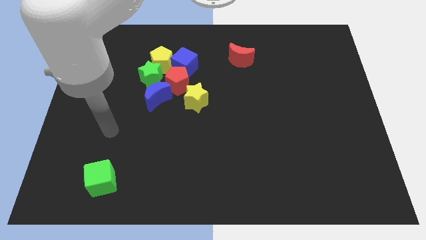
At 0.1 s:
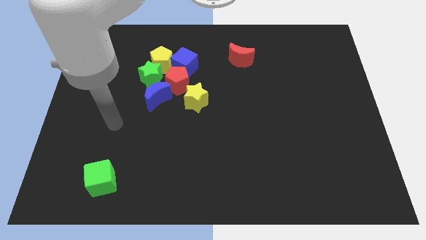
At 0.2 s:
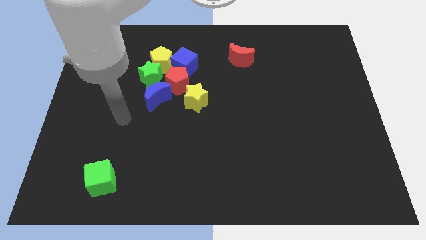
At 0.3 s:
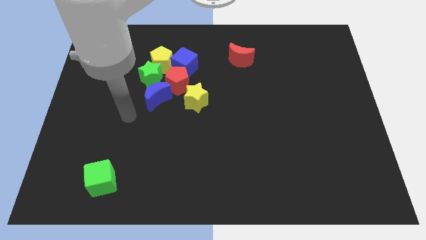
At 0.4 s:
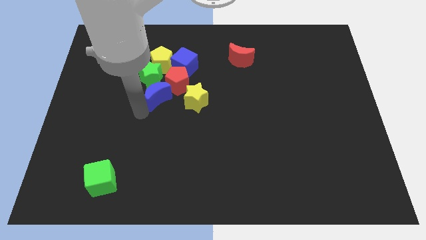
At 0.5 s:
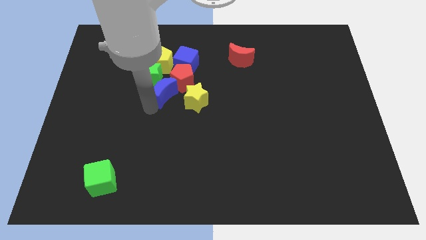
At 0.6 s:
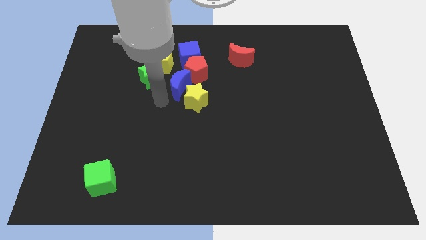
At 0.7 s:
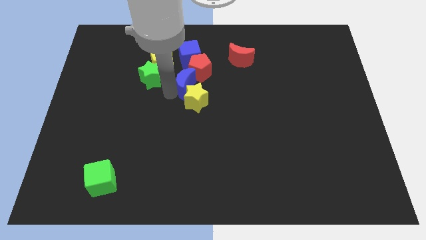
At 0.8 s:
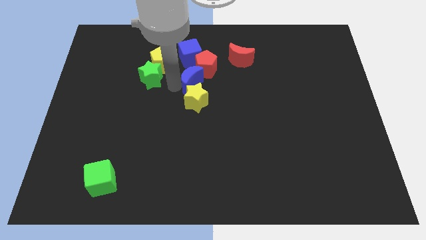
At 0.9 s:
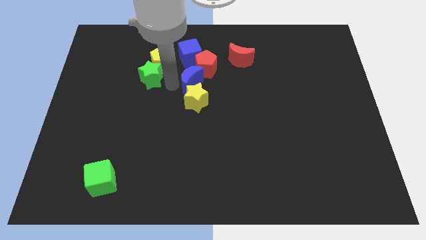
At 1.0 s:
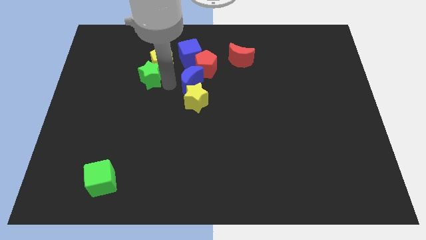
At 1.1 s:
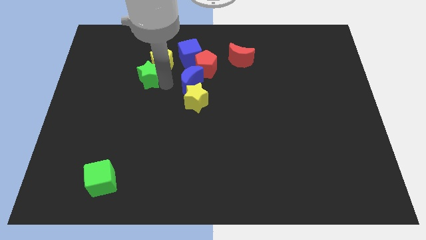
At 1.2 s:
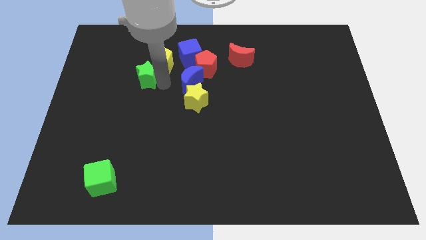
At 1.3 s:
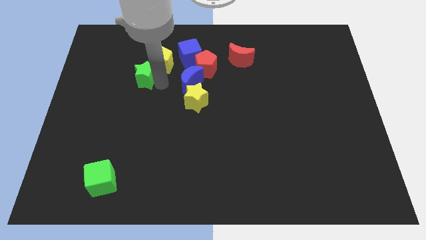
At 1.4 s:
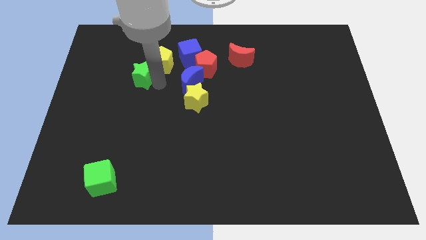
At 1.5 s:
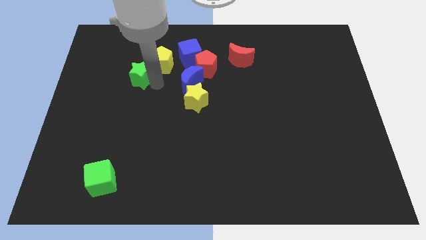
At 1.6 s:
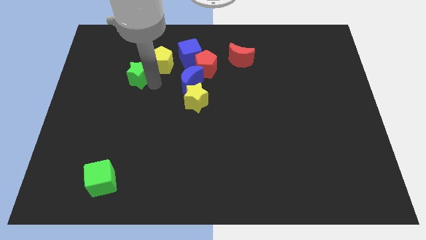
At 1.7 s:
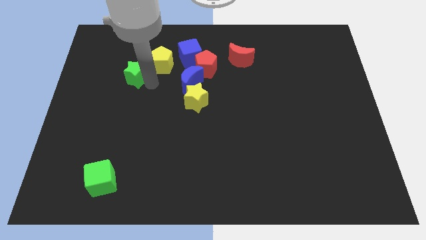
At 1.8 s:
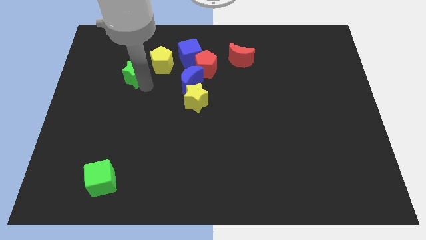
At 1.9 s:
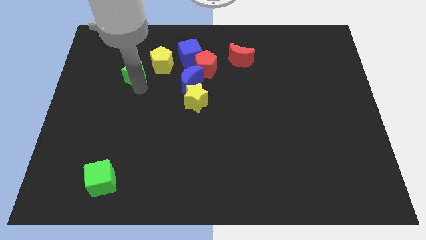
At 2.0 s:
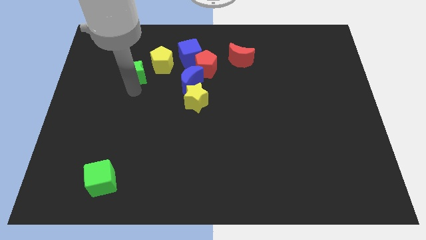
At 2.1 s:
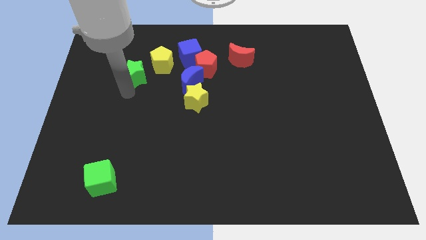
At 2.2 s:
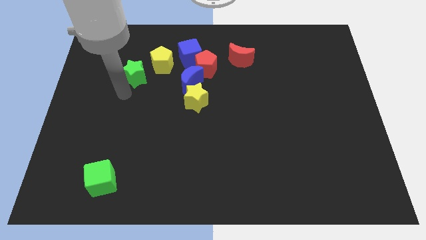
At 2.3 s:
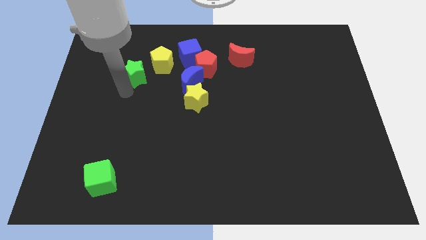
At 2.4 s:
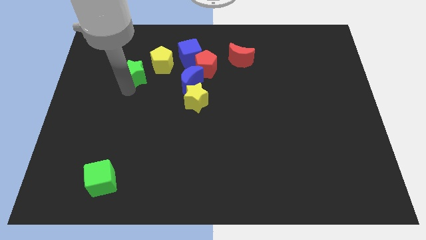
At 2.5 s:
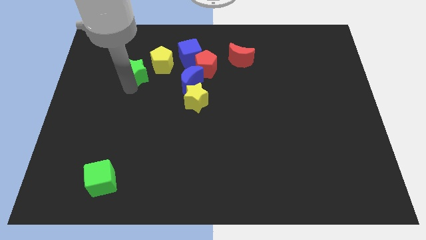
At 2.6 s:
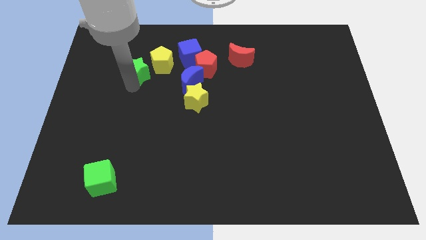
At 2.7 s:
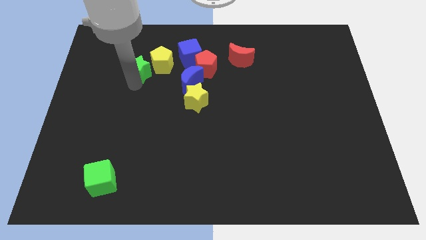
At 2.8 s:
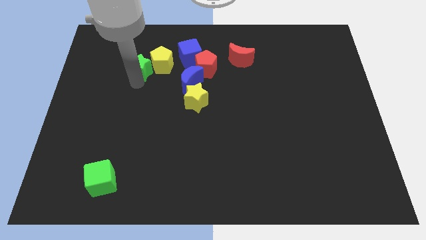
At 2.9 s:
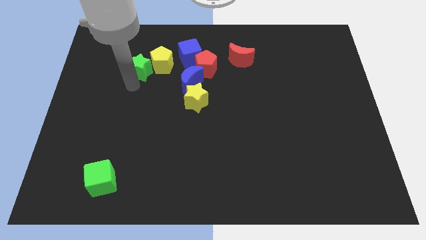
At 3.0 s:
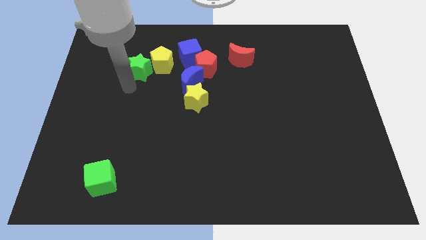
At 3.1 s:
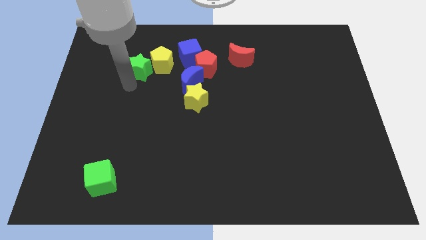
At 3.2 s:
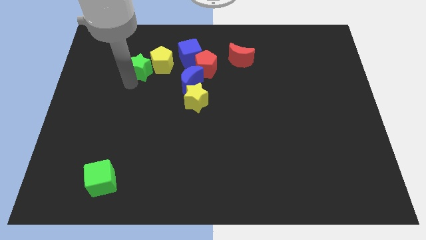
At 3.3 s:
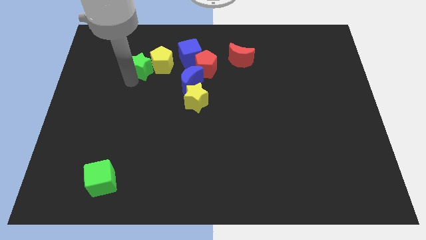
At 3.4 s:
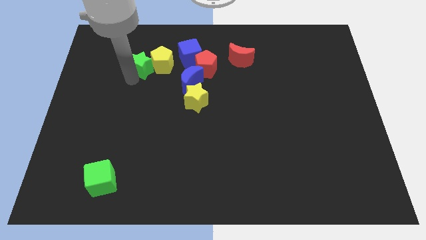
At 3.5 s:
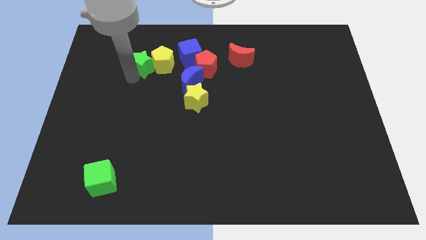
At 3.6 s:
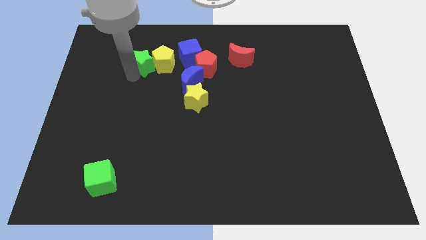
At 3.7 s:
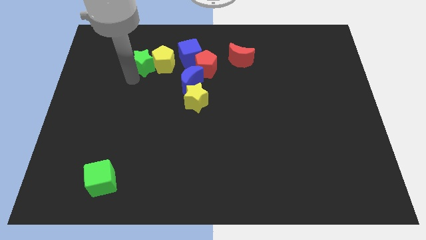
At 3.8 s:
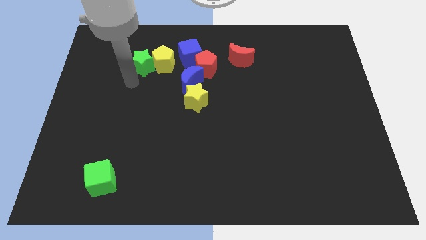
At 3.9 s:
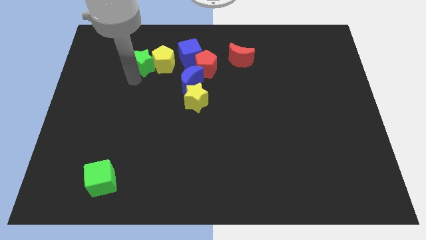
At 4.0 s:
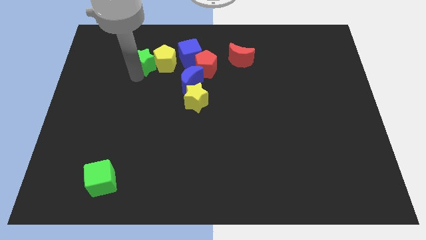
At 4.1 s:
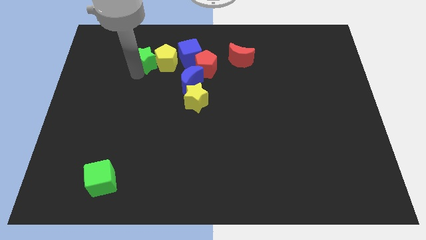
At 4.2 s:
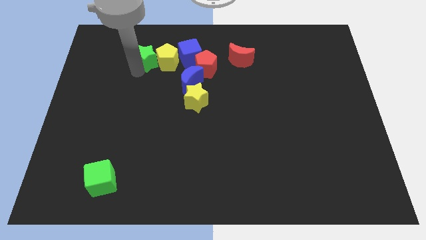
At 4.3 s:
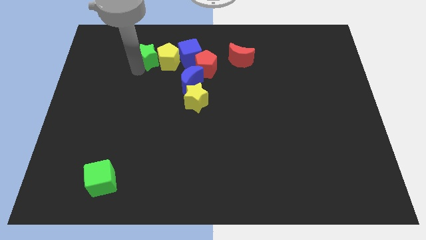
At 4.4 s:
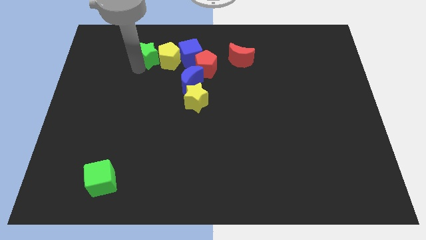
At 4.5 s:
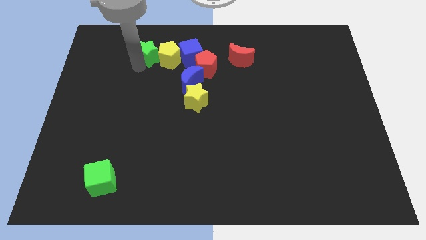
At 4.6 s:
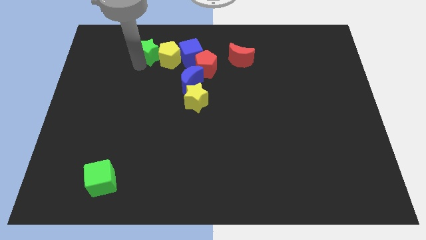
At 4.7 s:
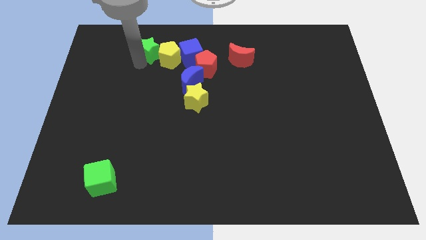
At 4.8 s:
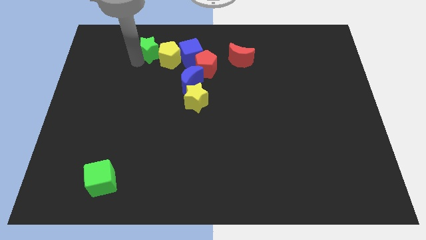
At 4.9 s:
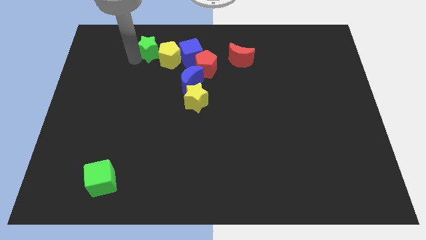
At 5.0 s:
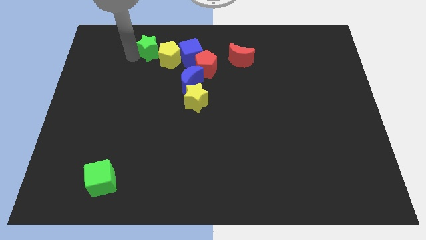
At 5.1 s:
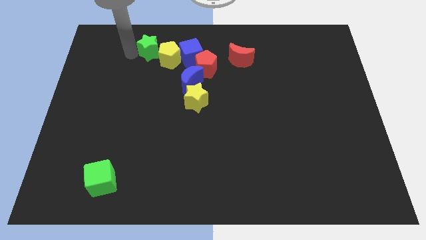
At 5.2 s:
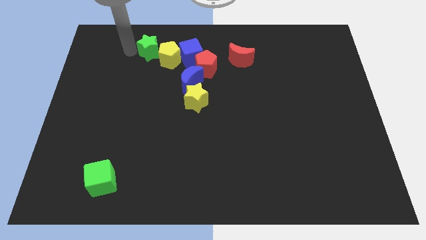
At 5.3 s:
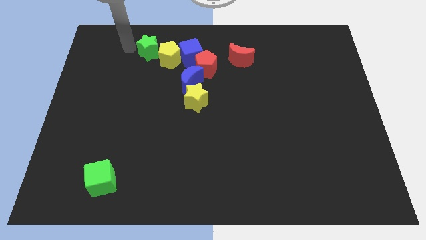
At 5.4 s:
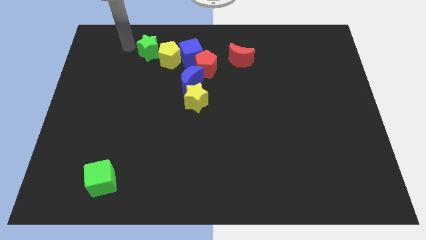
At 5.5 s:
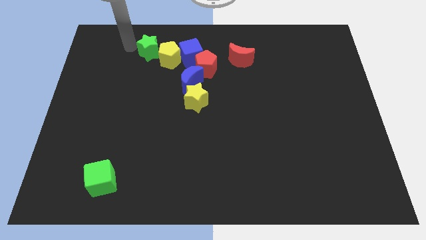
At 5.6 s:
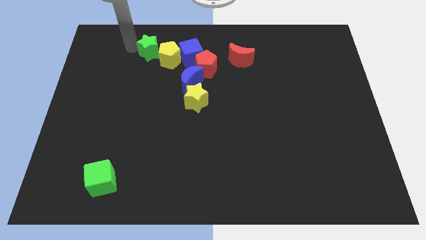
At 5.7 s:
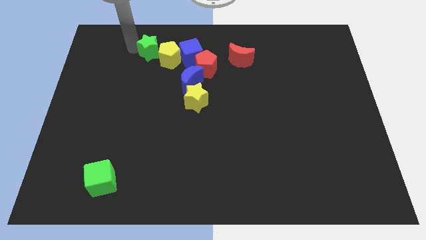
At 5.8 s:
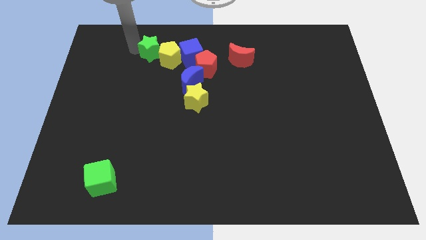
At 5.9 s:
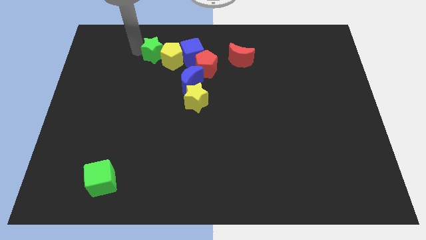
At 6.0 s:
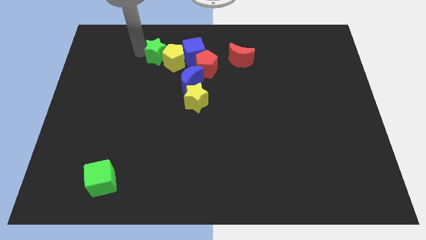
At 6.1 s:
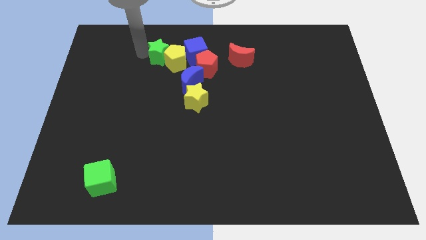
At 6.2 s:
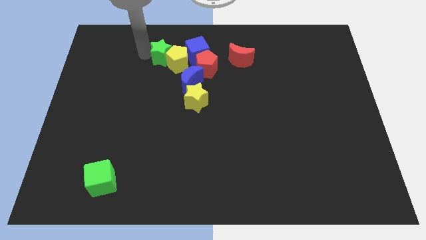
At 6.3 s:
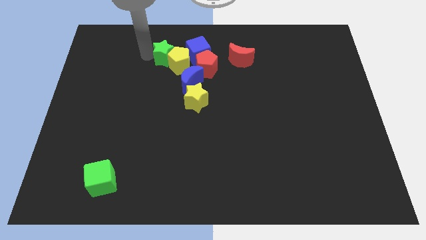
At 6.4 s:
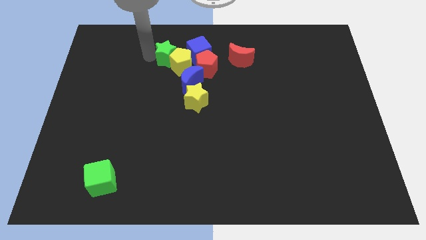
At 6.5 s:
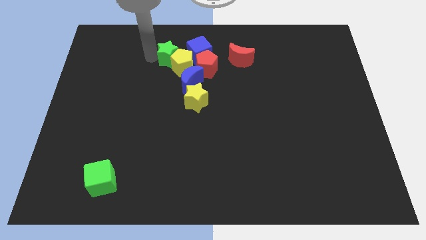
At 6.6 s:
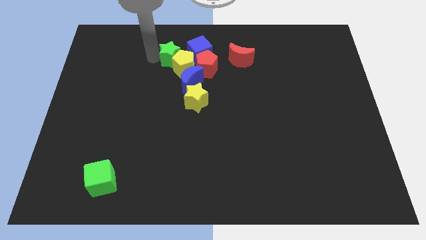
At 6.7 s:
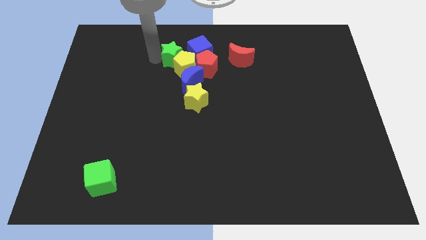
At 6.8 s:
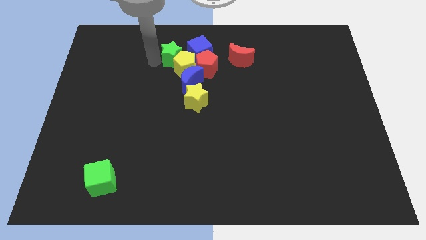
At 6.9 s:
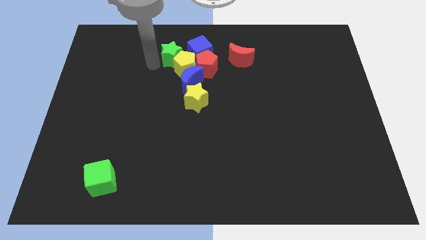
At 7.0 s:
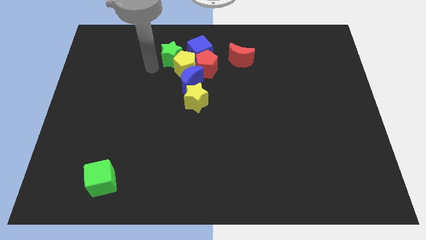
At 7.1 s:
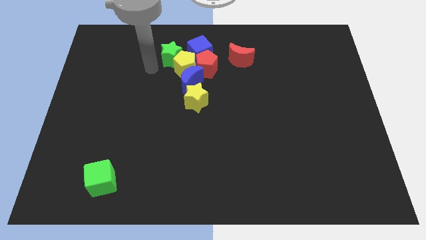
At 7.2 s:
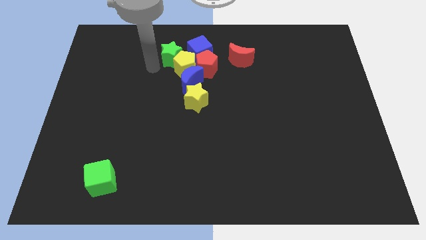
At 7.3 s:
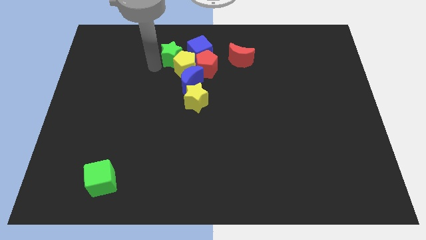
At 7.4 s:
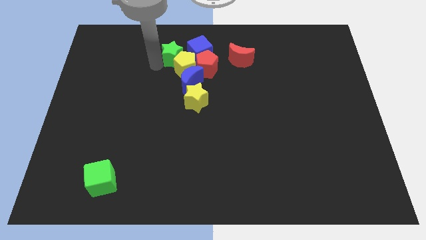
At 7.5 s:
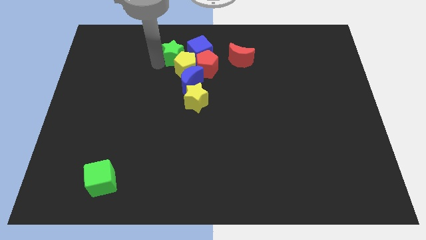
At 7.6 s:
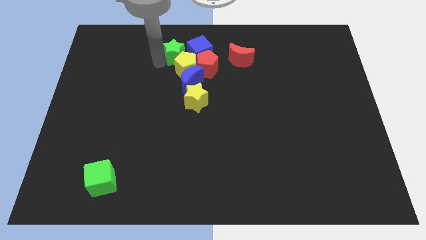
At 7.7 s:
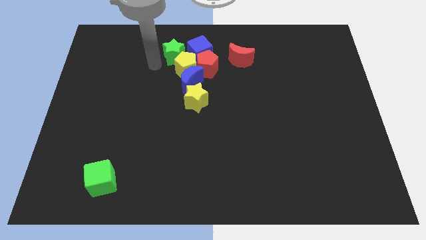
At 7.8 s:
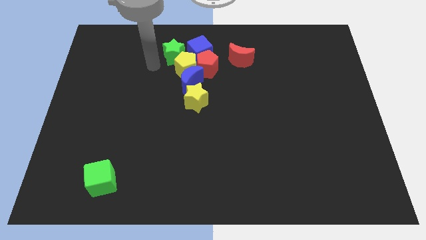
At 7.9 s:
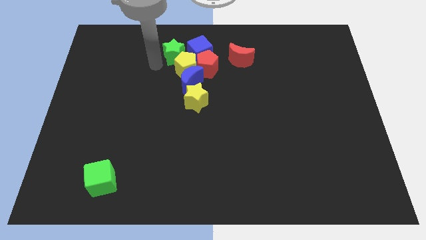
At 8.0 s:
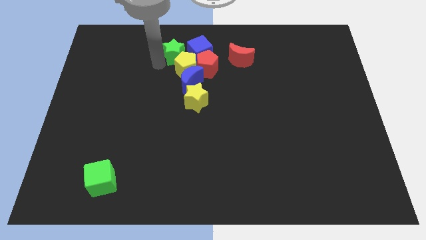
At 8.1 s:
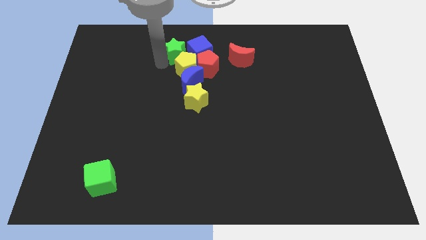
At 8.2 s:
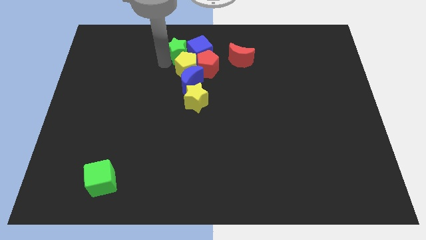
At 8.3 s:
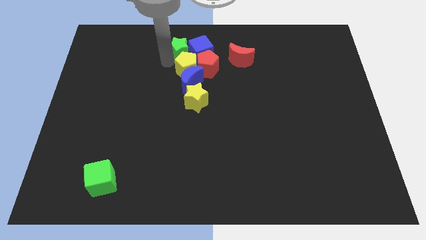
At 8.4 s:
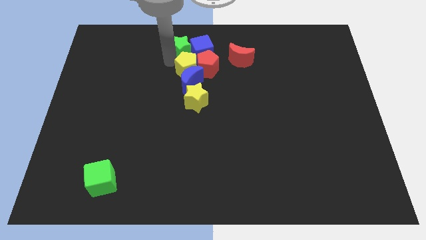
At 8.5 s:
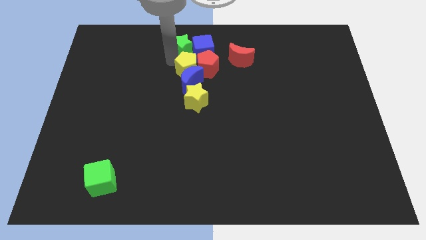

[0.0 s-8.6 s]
move the green star to the top
